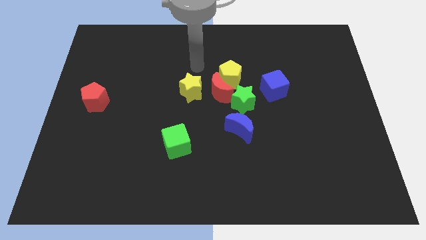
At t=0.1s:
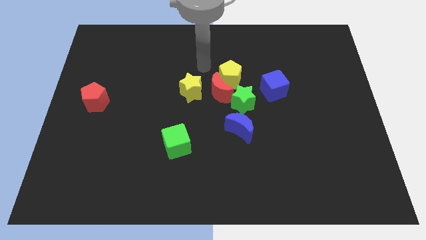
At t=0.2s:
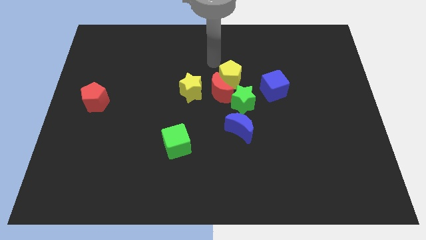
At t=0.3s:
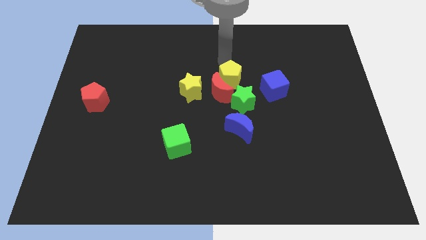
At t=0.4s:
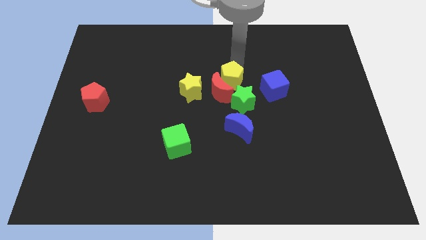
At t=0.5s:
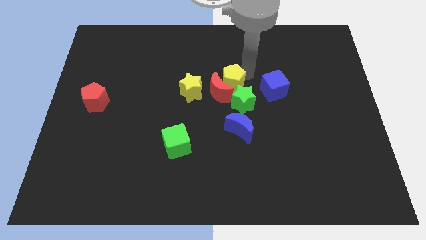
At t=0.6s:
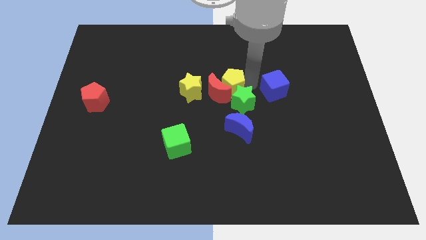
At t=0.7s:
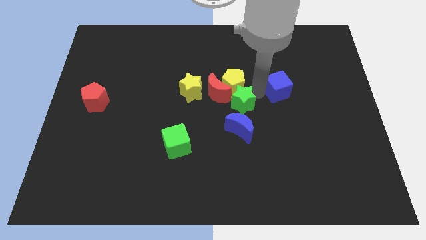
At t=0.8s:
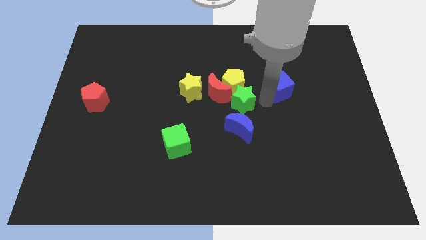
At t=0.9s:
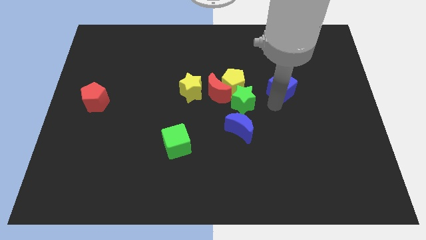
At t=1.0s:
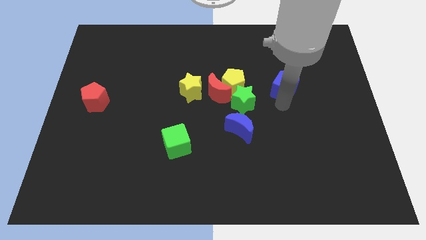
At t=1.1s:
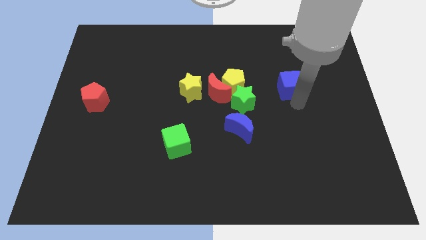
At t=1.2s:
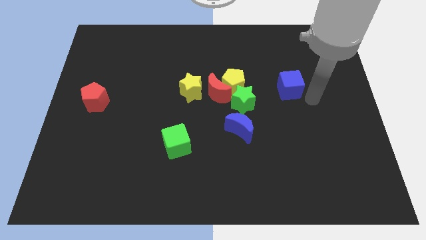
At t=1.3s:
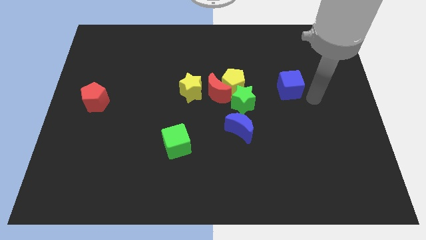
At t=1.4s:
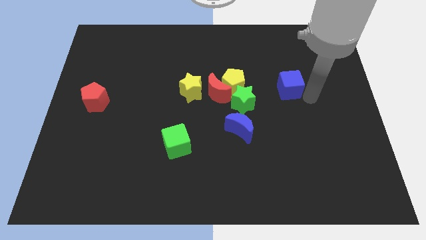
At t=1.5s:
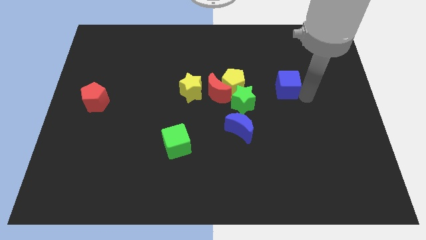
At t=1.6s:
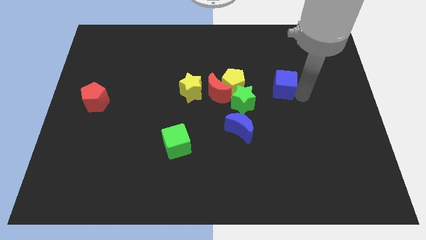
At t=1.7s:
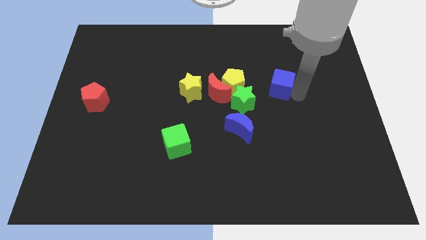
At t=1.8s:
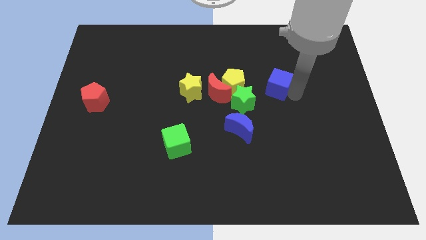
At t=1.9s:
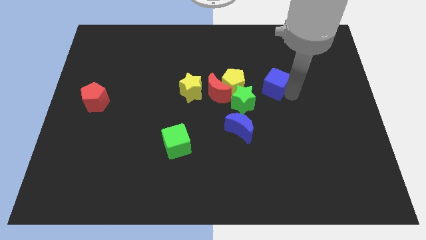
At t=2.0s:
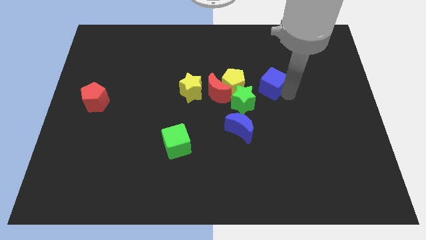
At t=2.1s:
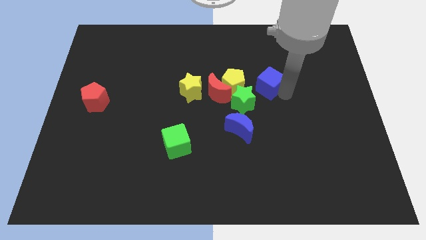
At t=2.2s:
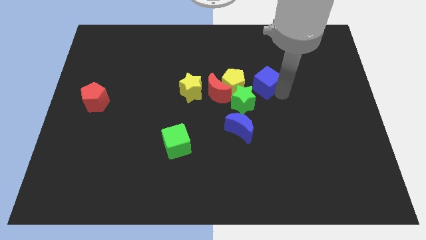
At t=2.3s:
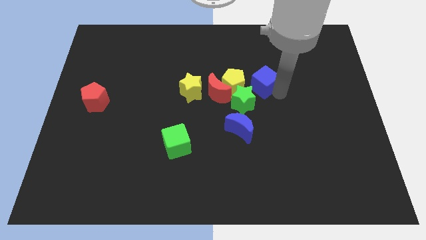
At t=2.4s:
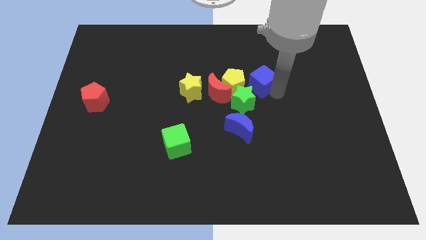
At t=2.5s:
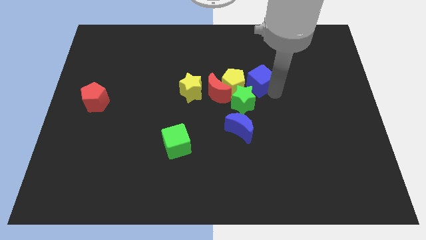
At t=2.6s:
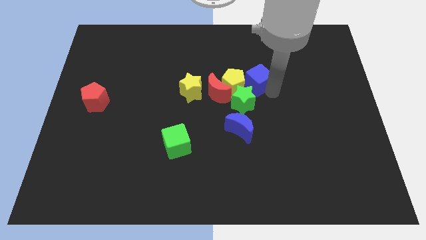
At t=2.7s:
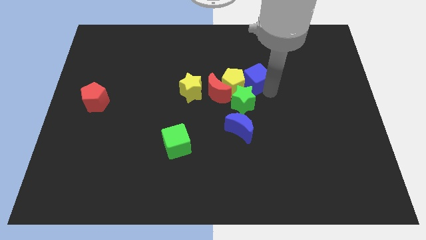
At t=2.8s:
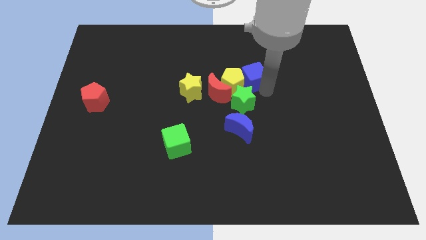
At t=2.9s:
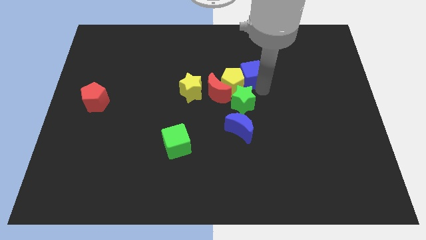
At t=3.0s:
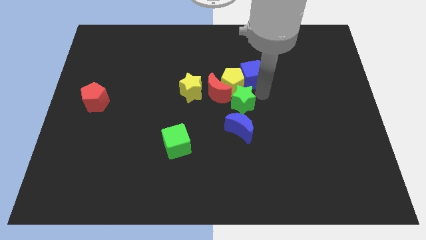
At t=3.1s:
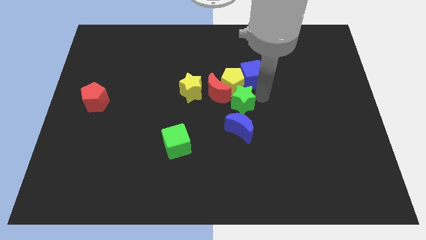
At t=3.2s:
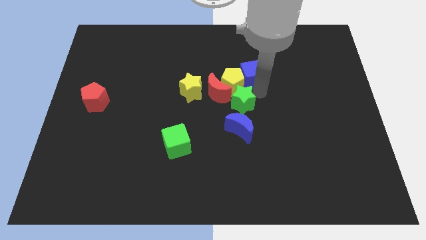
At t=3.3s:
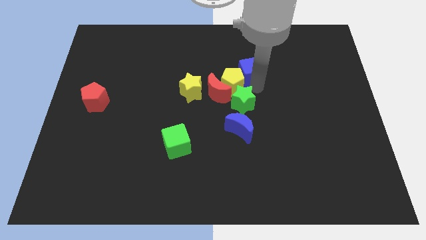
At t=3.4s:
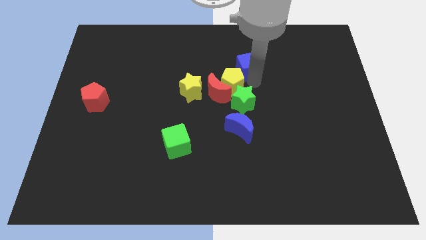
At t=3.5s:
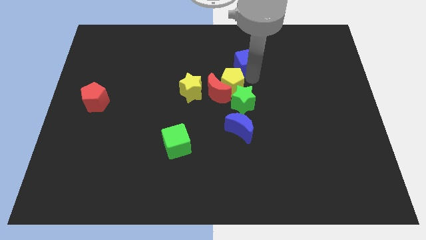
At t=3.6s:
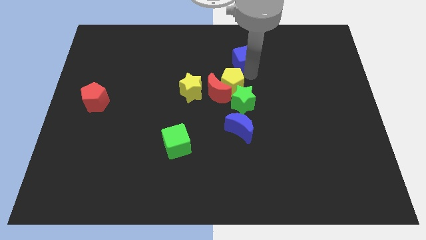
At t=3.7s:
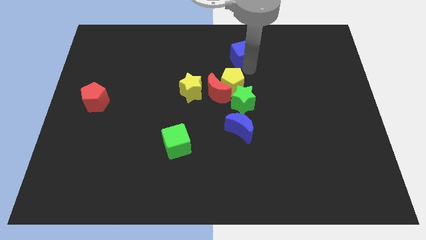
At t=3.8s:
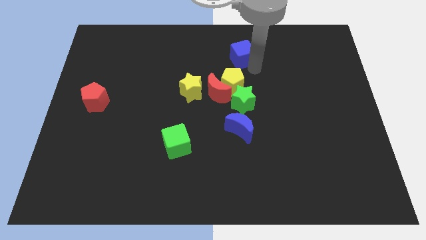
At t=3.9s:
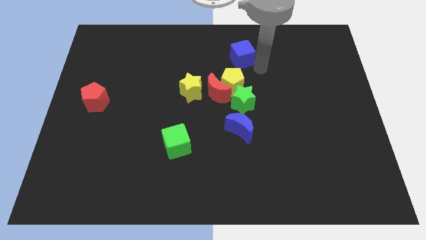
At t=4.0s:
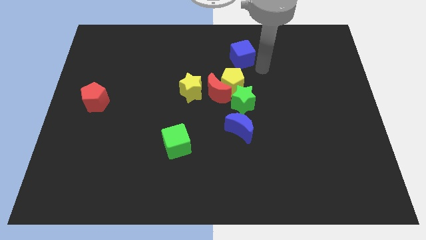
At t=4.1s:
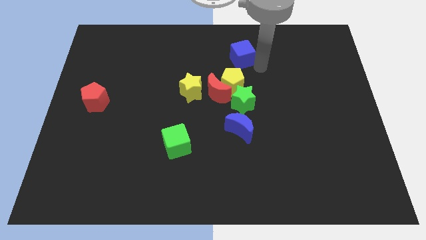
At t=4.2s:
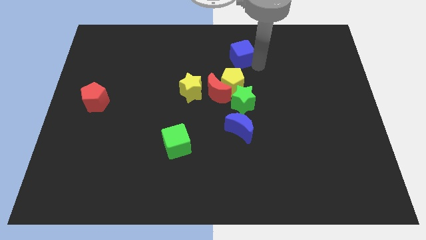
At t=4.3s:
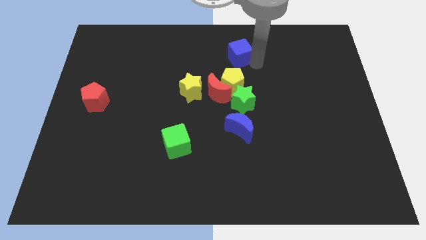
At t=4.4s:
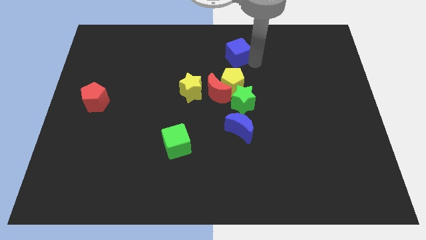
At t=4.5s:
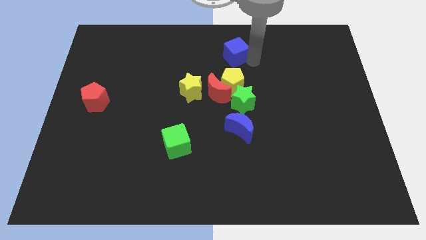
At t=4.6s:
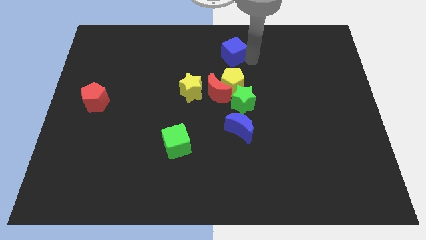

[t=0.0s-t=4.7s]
push the blue cube to the towards your base

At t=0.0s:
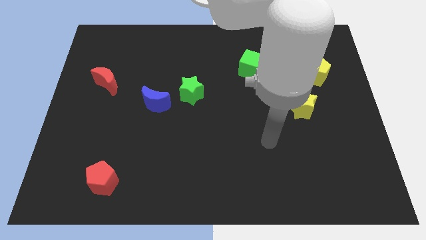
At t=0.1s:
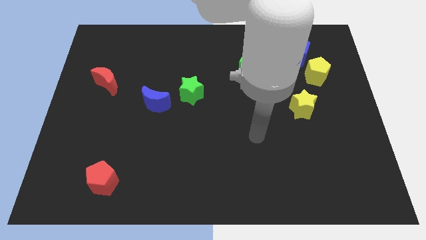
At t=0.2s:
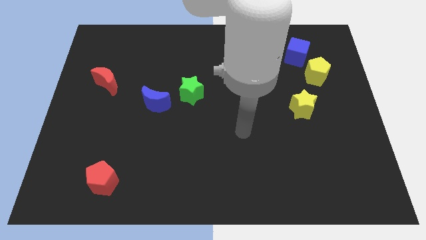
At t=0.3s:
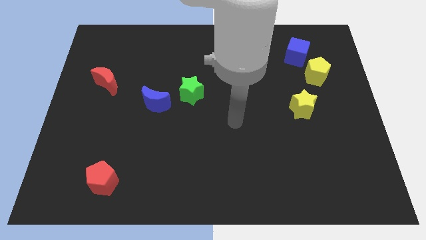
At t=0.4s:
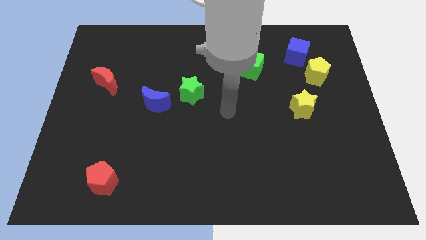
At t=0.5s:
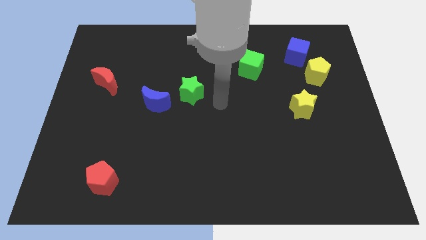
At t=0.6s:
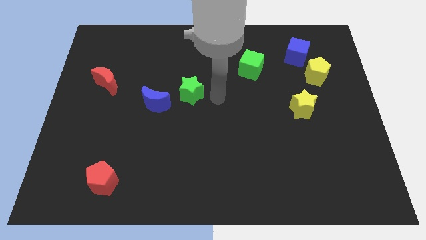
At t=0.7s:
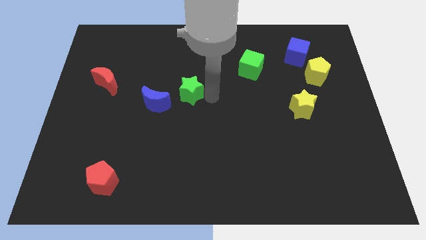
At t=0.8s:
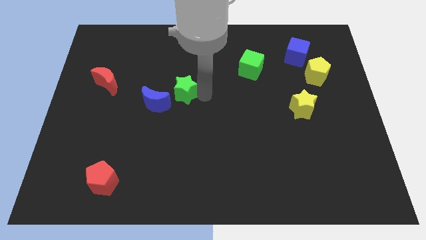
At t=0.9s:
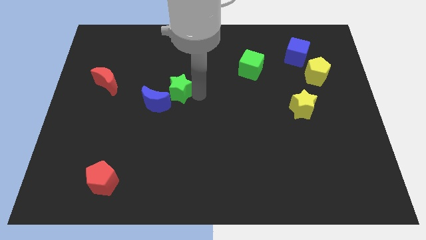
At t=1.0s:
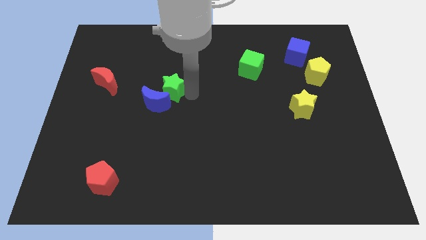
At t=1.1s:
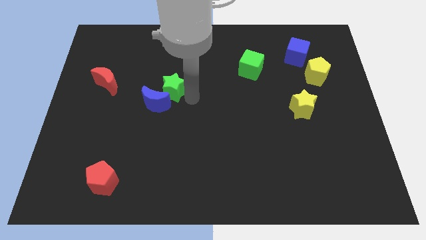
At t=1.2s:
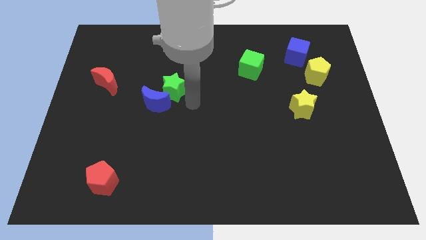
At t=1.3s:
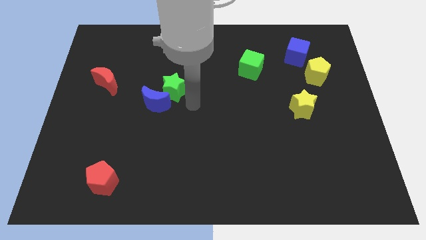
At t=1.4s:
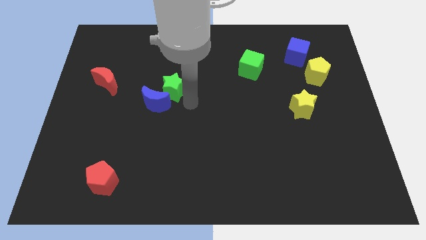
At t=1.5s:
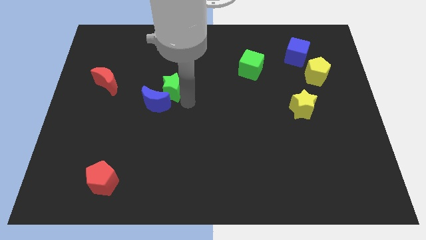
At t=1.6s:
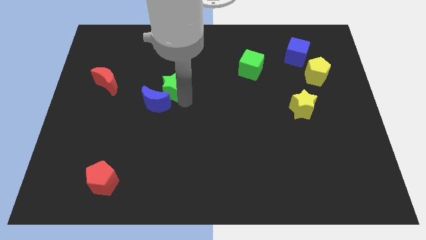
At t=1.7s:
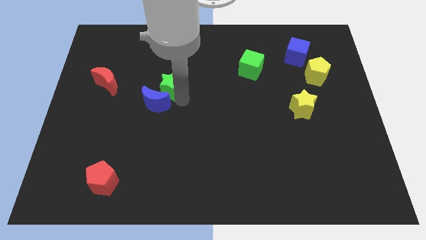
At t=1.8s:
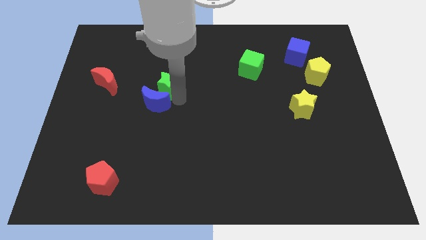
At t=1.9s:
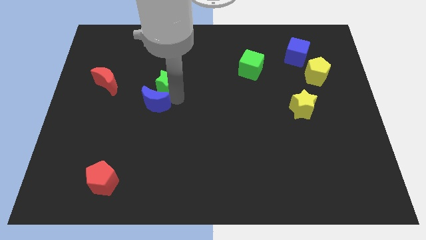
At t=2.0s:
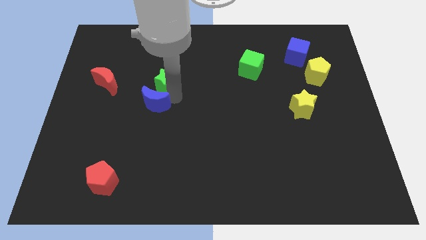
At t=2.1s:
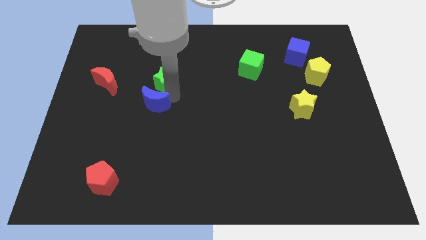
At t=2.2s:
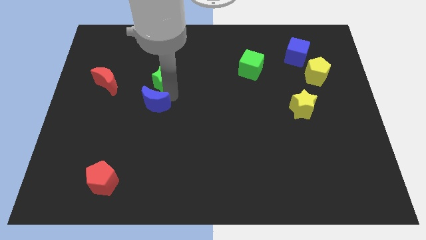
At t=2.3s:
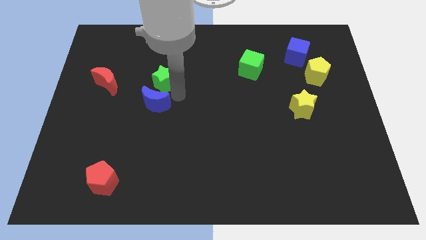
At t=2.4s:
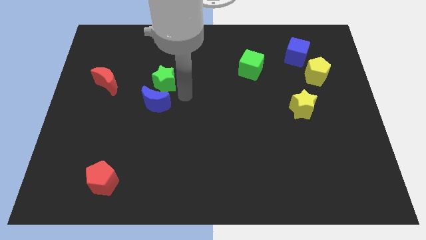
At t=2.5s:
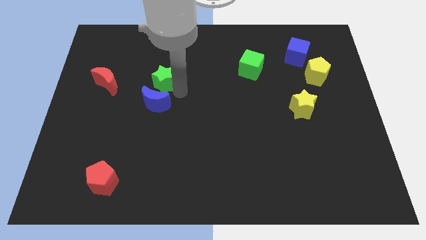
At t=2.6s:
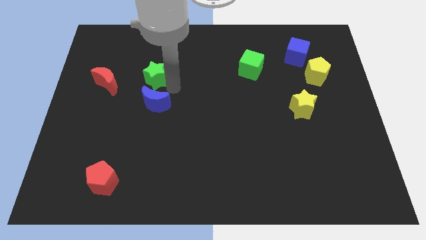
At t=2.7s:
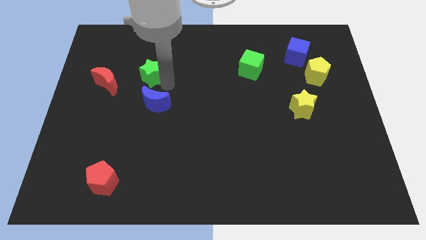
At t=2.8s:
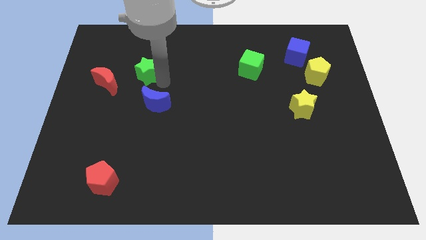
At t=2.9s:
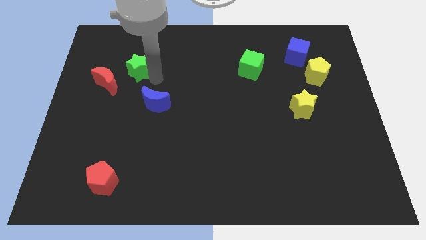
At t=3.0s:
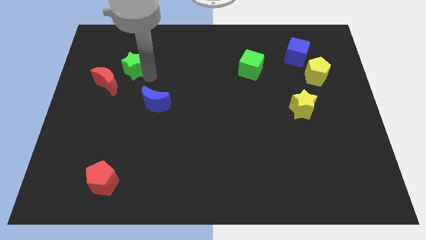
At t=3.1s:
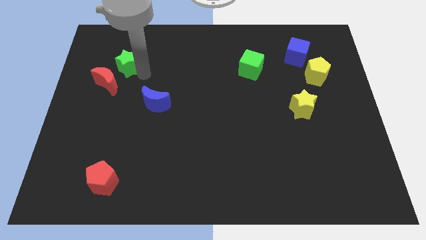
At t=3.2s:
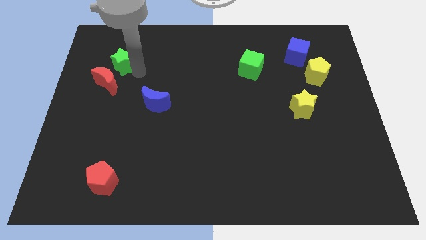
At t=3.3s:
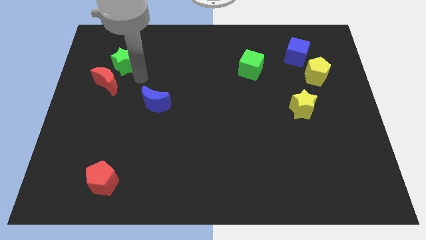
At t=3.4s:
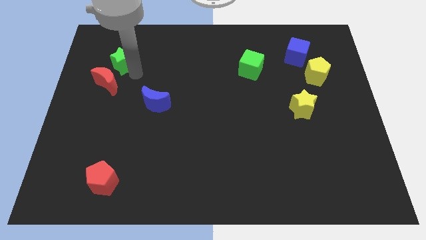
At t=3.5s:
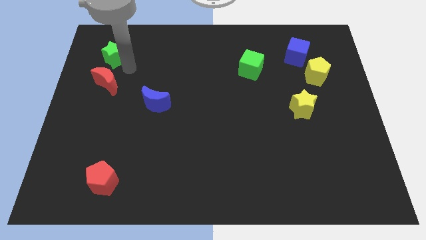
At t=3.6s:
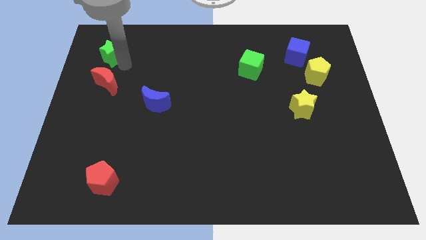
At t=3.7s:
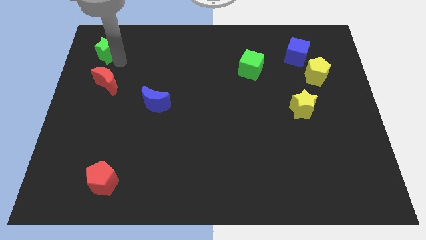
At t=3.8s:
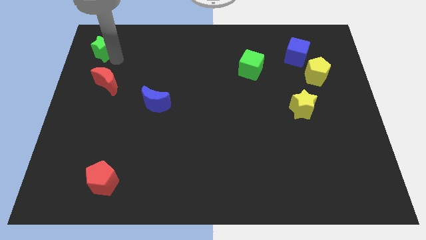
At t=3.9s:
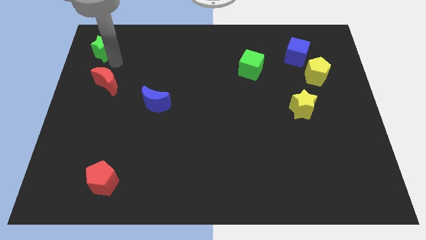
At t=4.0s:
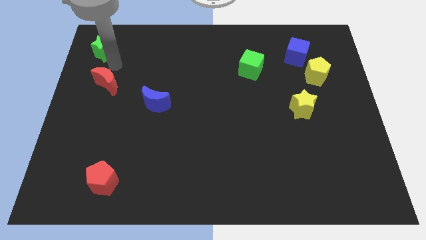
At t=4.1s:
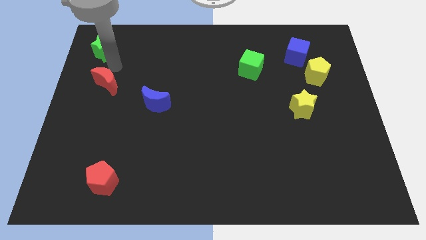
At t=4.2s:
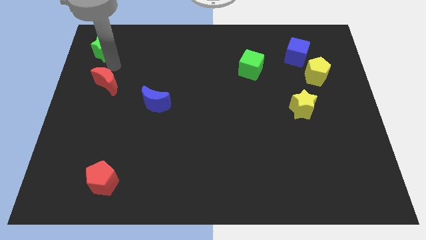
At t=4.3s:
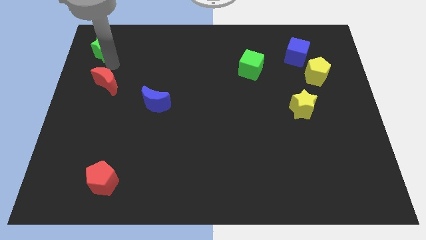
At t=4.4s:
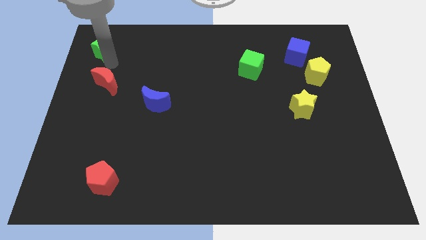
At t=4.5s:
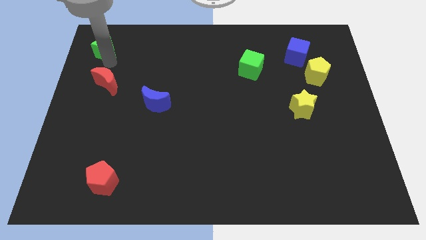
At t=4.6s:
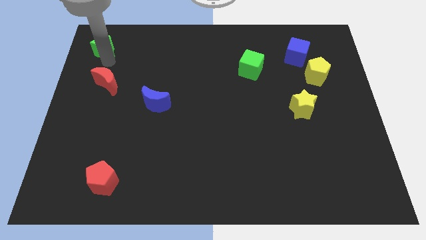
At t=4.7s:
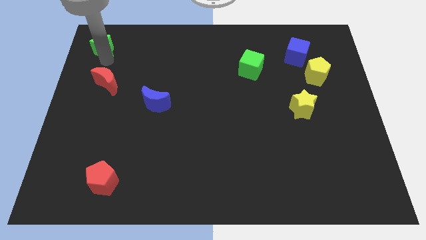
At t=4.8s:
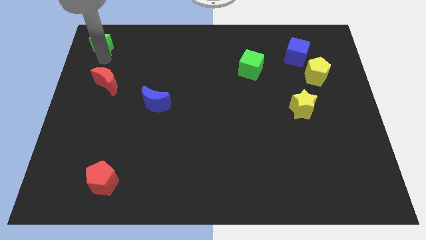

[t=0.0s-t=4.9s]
push the green star to the top left of the board
